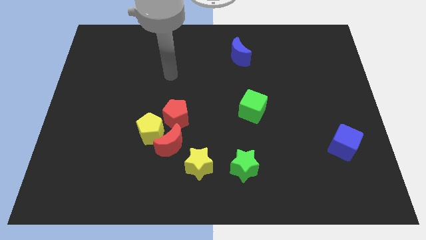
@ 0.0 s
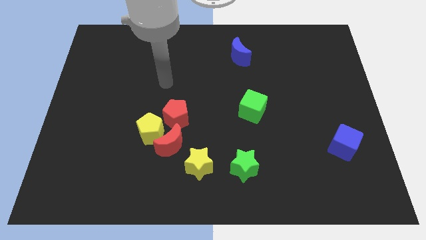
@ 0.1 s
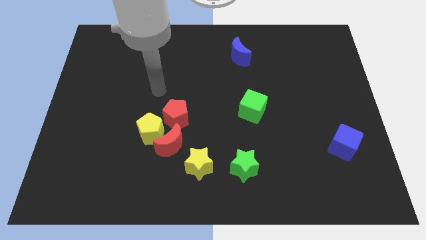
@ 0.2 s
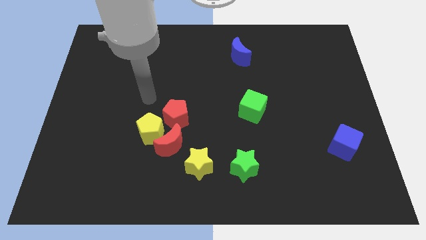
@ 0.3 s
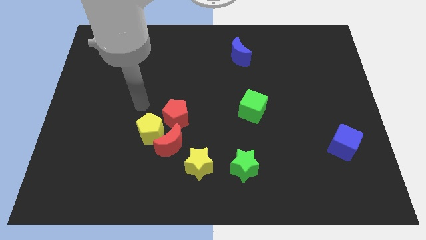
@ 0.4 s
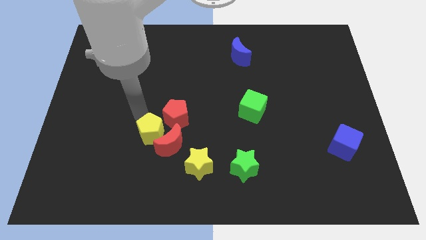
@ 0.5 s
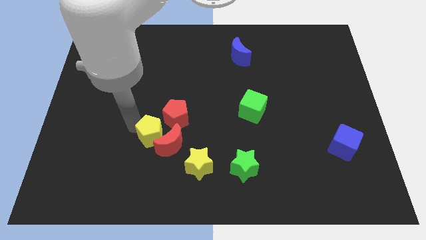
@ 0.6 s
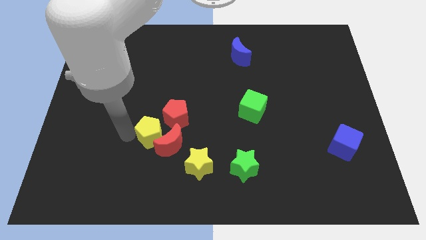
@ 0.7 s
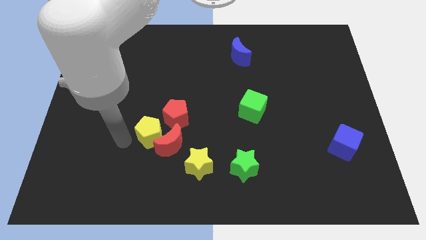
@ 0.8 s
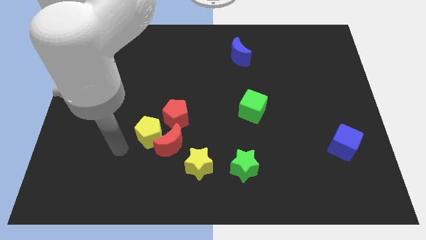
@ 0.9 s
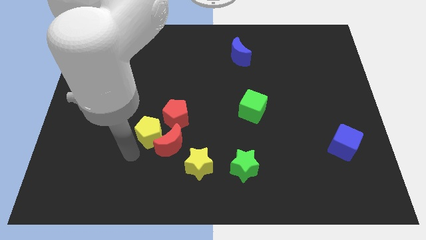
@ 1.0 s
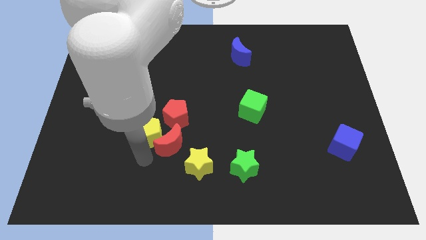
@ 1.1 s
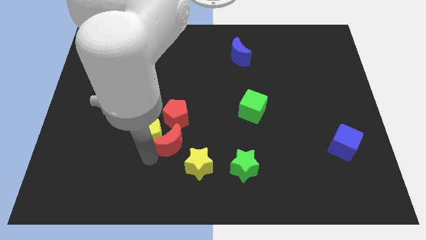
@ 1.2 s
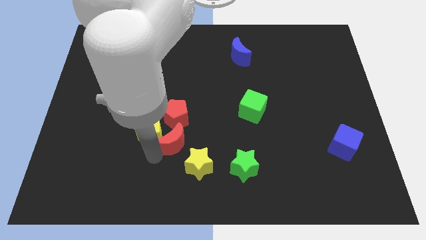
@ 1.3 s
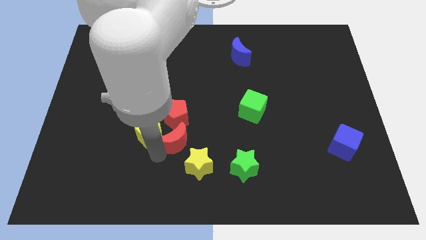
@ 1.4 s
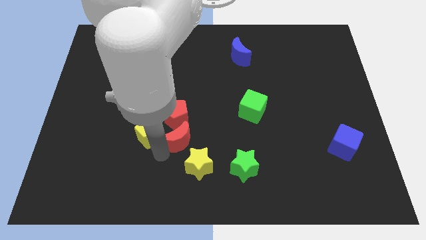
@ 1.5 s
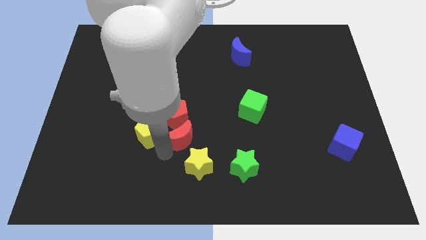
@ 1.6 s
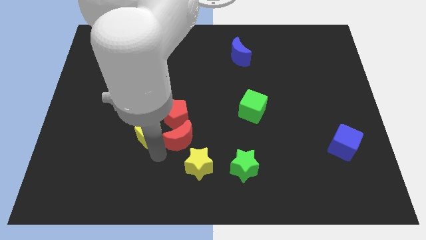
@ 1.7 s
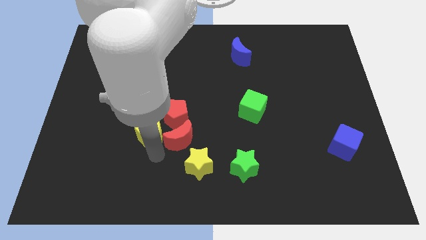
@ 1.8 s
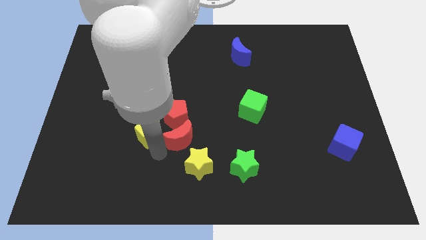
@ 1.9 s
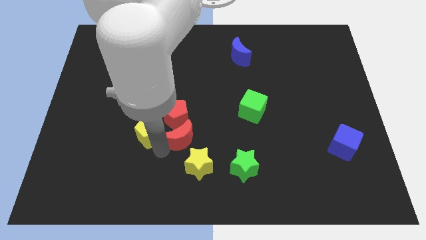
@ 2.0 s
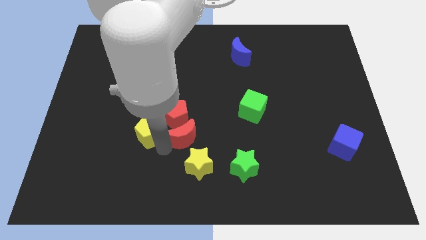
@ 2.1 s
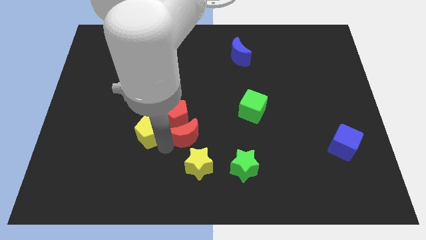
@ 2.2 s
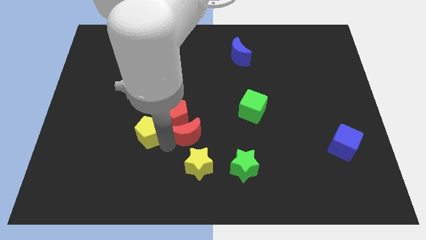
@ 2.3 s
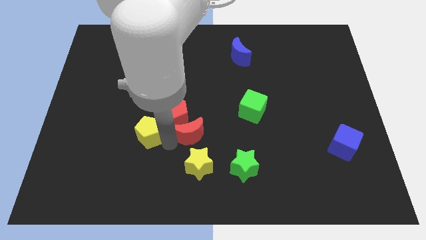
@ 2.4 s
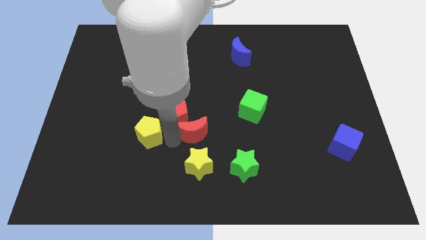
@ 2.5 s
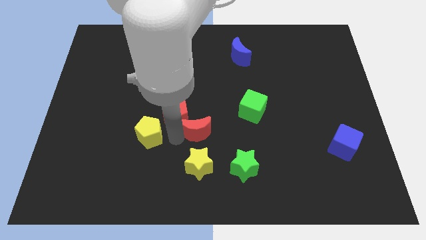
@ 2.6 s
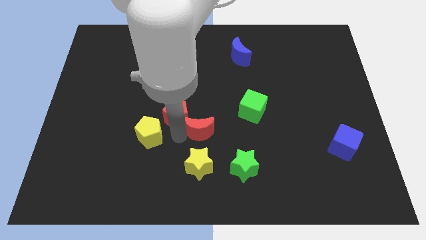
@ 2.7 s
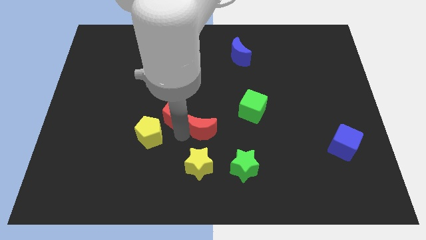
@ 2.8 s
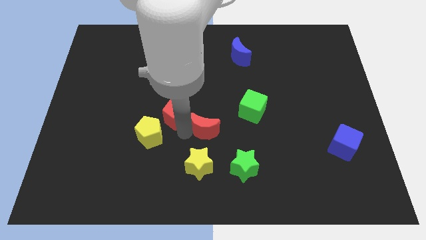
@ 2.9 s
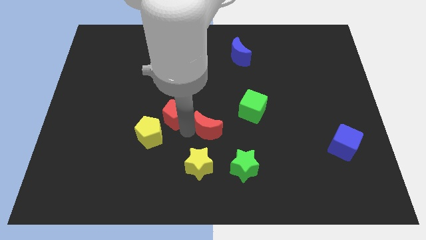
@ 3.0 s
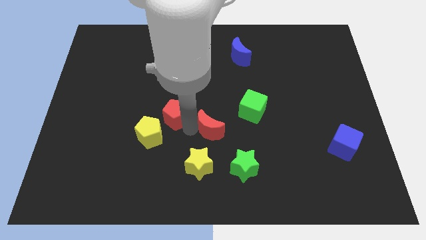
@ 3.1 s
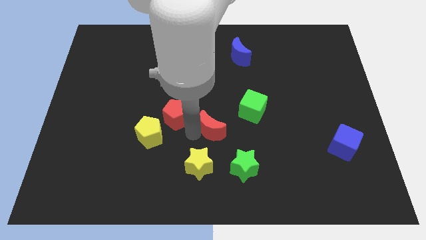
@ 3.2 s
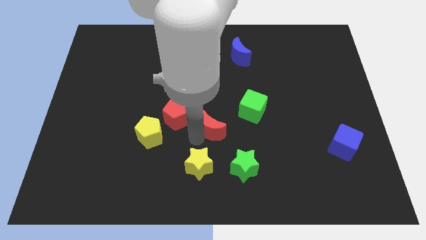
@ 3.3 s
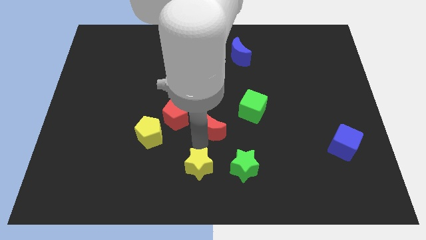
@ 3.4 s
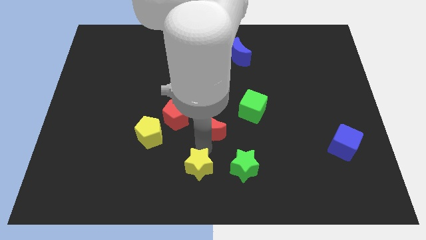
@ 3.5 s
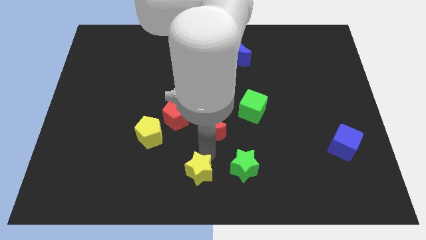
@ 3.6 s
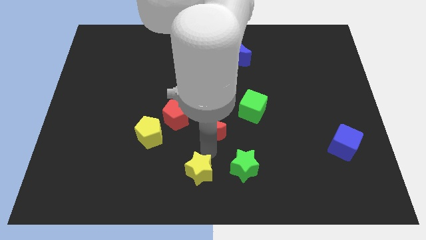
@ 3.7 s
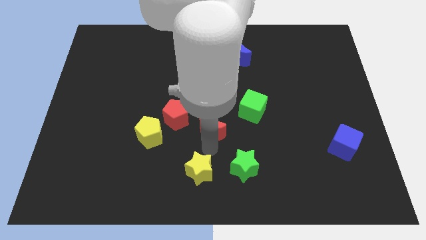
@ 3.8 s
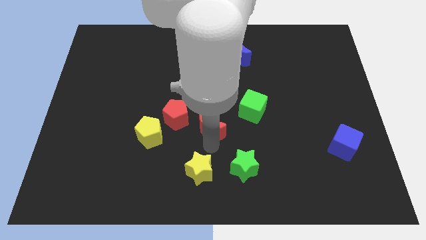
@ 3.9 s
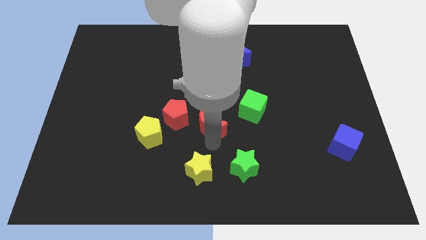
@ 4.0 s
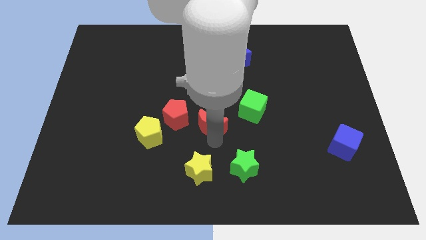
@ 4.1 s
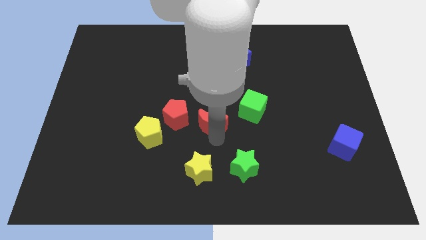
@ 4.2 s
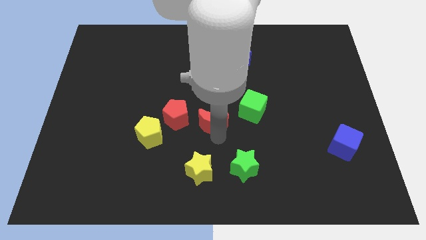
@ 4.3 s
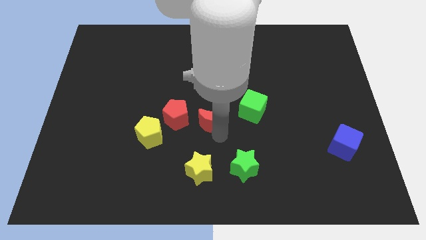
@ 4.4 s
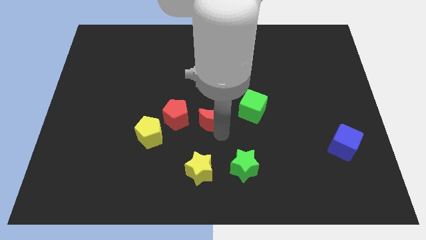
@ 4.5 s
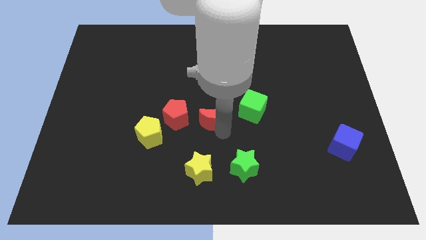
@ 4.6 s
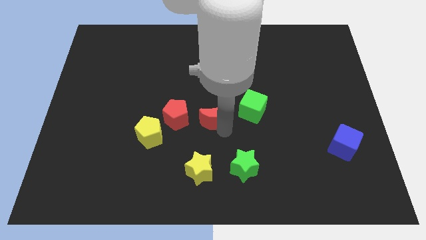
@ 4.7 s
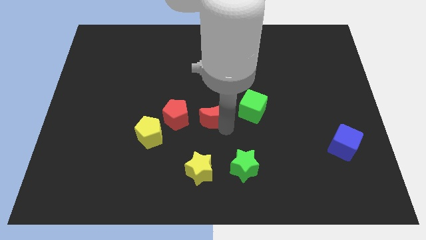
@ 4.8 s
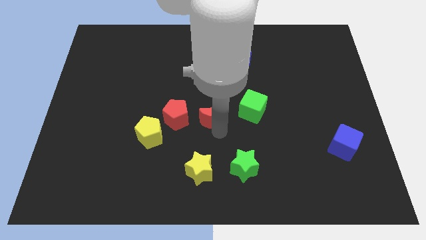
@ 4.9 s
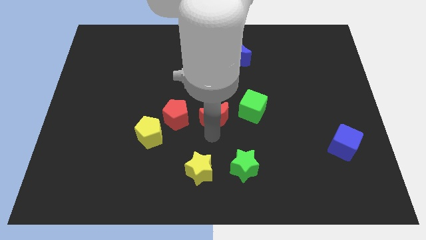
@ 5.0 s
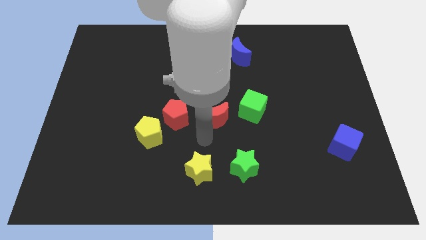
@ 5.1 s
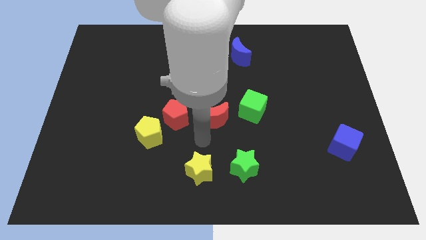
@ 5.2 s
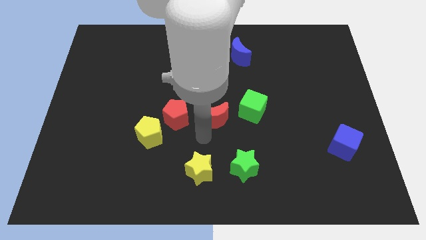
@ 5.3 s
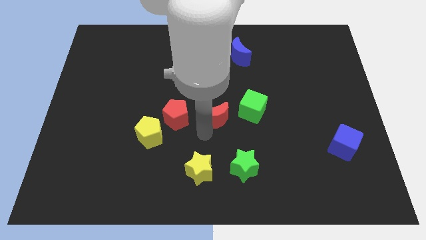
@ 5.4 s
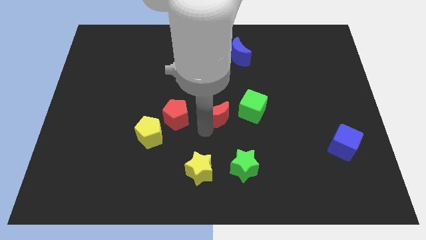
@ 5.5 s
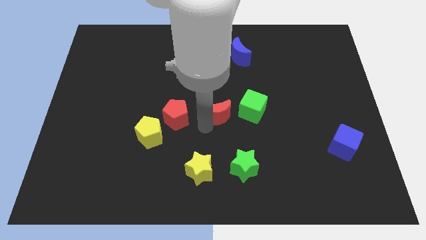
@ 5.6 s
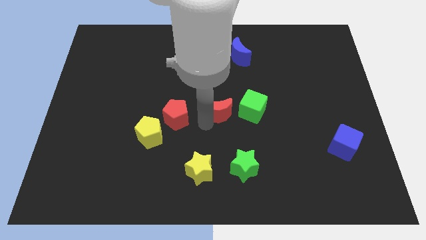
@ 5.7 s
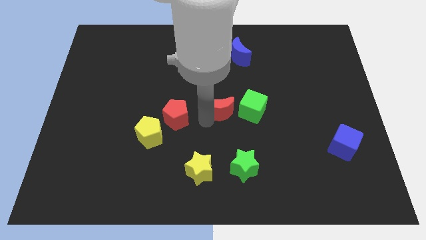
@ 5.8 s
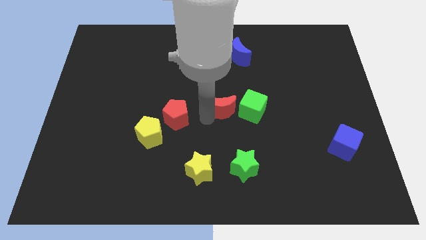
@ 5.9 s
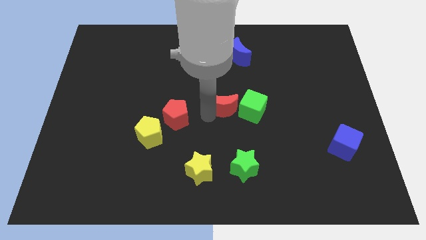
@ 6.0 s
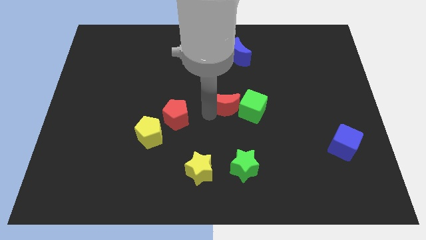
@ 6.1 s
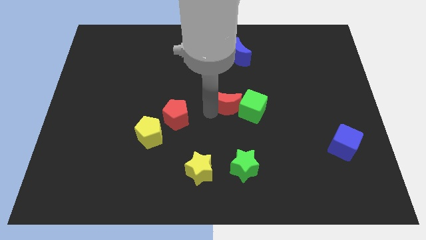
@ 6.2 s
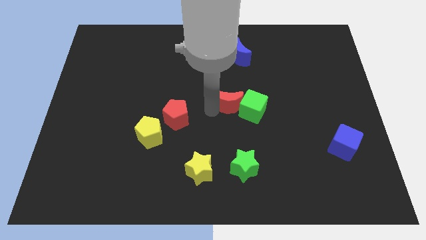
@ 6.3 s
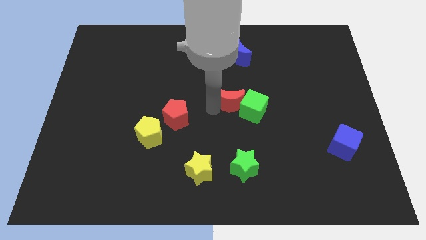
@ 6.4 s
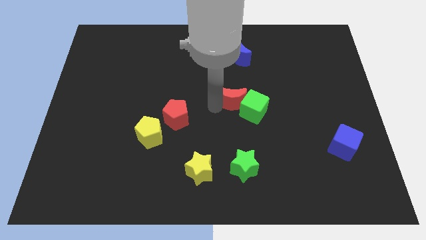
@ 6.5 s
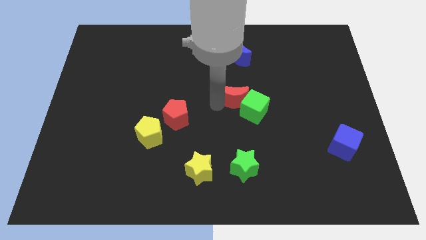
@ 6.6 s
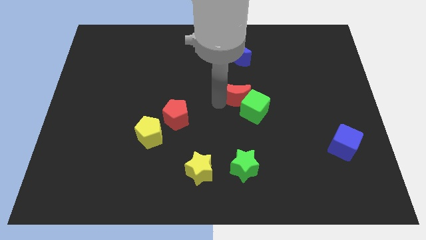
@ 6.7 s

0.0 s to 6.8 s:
push the red moon diagonally upwards and right

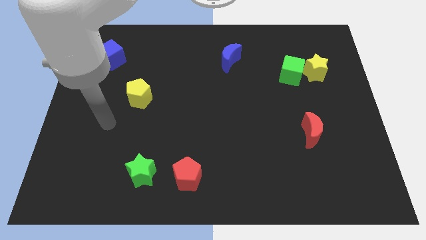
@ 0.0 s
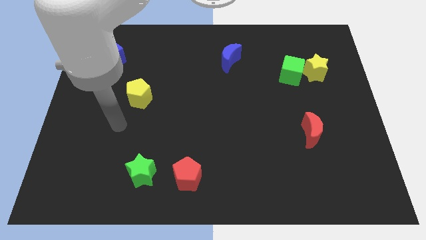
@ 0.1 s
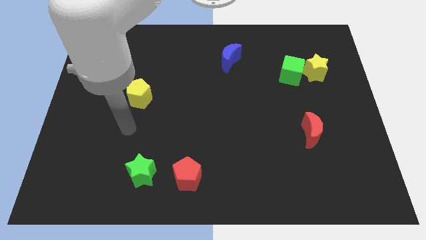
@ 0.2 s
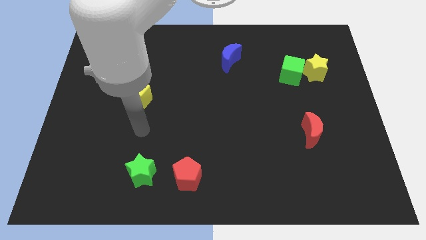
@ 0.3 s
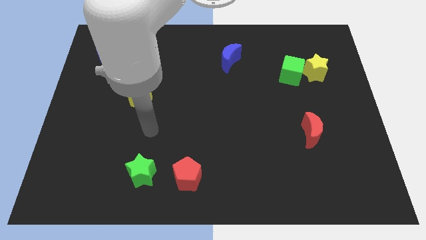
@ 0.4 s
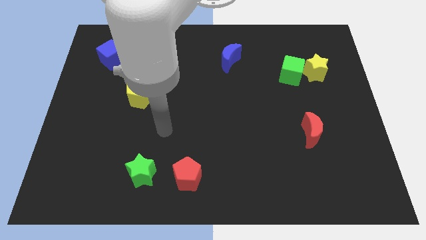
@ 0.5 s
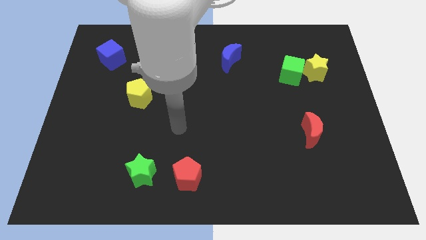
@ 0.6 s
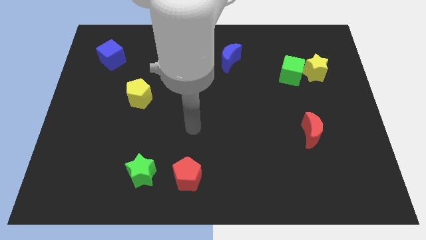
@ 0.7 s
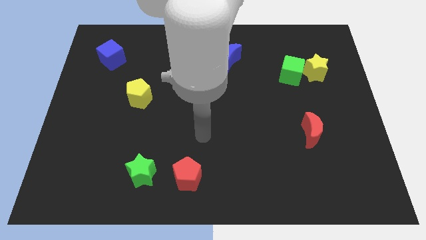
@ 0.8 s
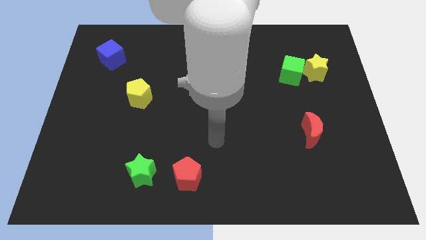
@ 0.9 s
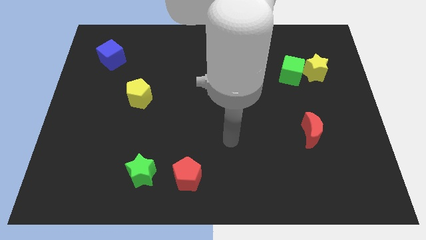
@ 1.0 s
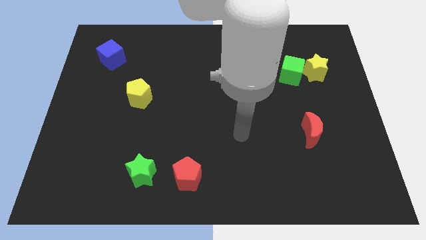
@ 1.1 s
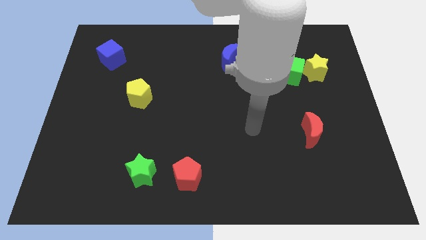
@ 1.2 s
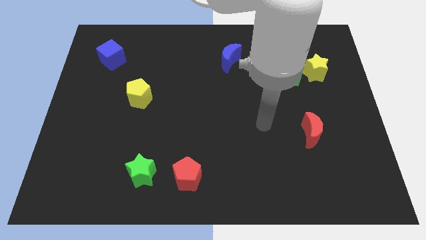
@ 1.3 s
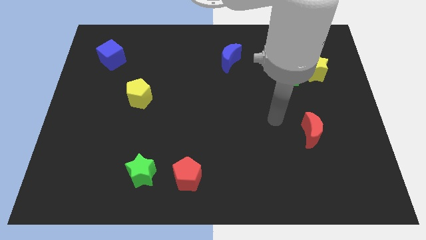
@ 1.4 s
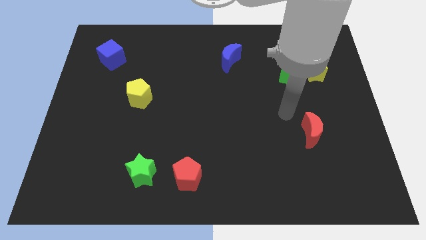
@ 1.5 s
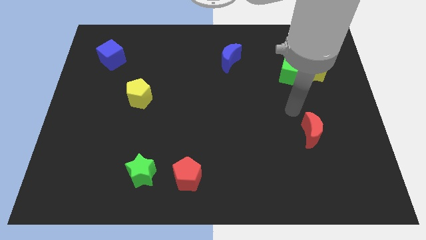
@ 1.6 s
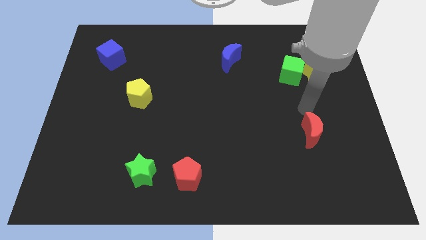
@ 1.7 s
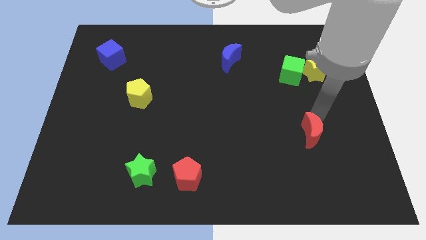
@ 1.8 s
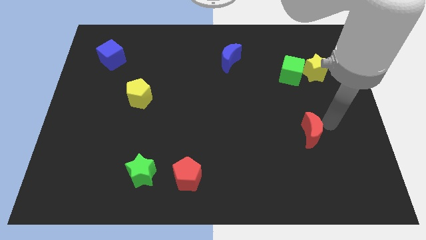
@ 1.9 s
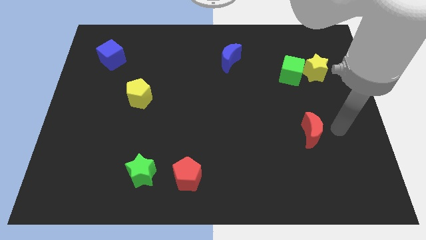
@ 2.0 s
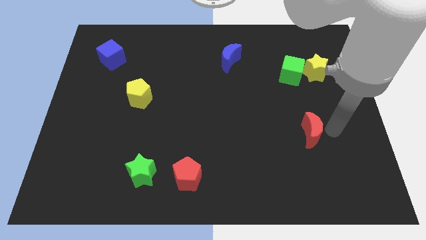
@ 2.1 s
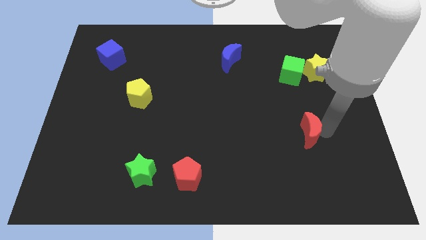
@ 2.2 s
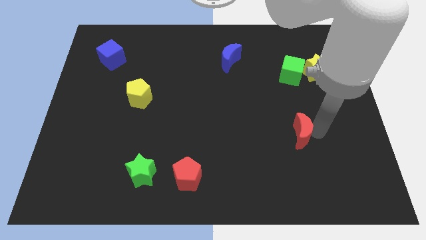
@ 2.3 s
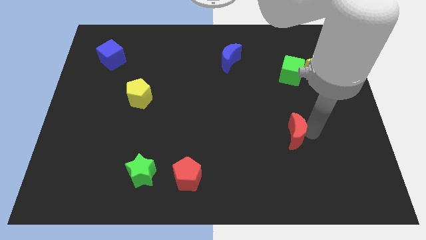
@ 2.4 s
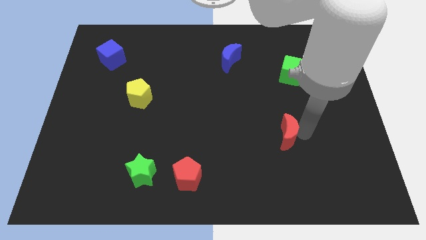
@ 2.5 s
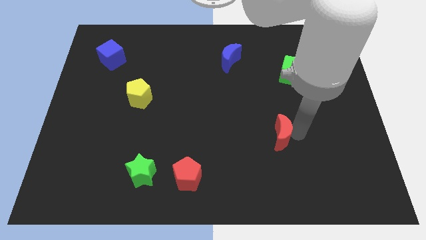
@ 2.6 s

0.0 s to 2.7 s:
push the red moon to the left a bit
